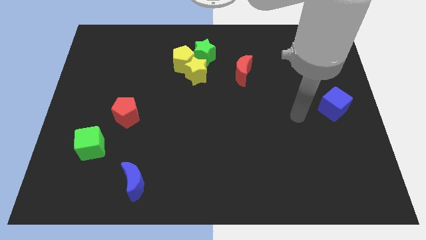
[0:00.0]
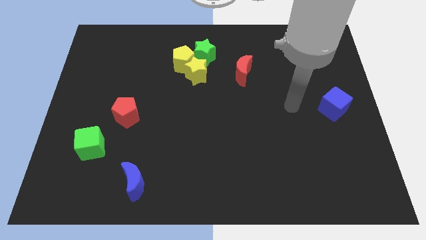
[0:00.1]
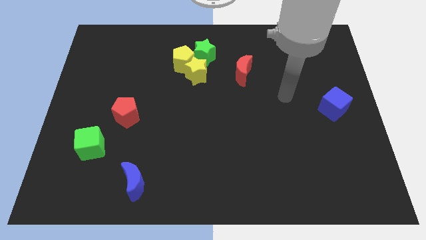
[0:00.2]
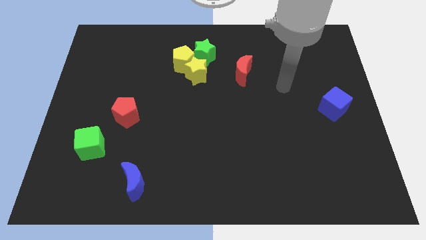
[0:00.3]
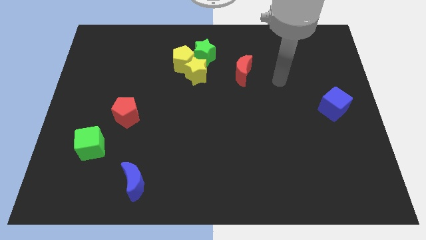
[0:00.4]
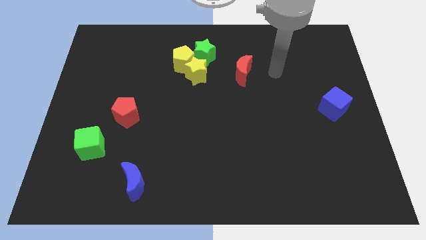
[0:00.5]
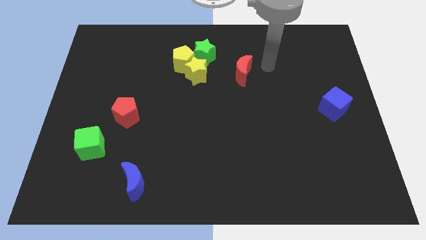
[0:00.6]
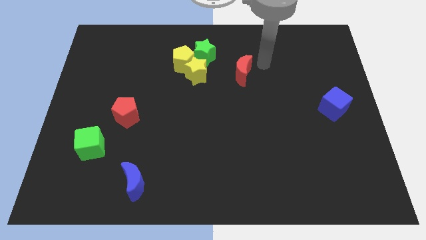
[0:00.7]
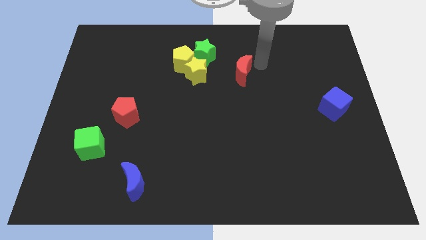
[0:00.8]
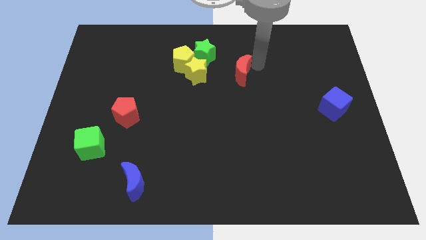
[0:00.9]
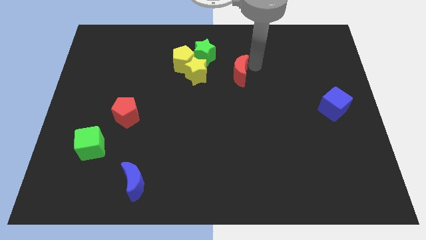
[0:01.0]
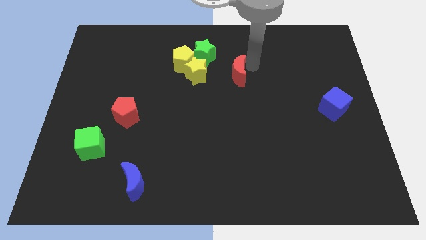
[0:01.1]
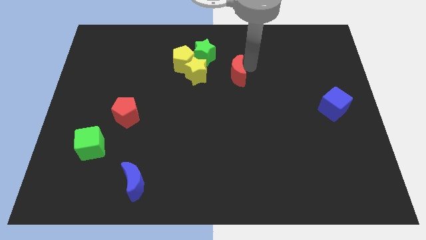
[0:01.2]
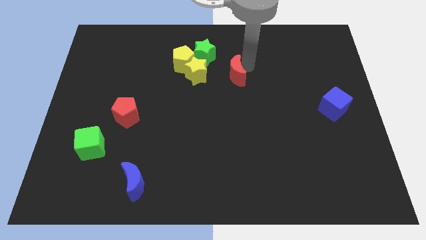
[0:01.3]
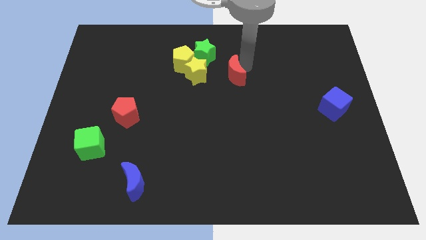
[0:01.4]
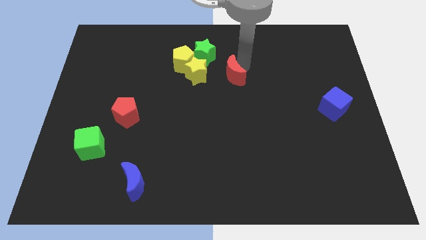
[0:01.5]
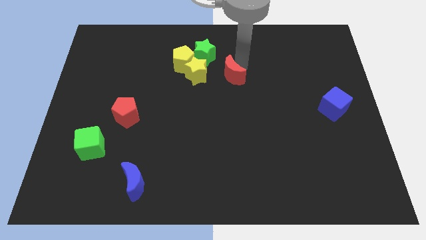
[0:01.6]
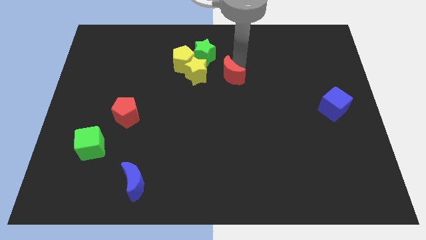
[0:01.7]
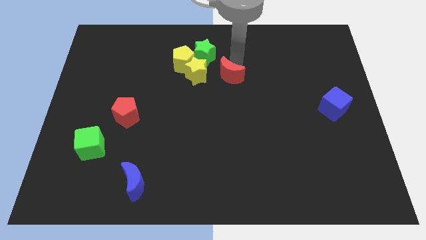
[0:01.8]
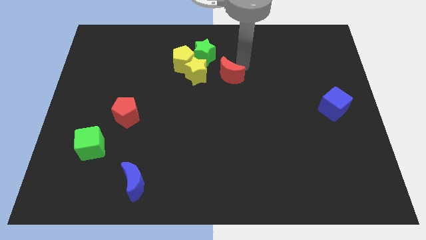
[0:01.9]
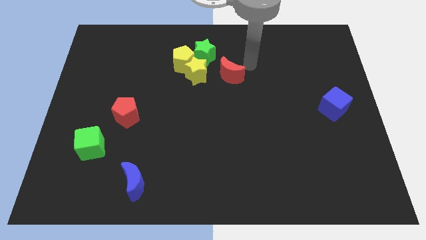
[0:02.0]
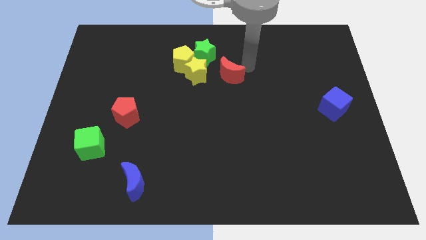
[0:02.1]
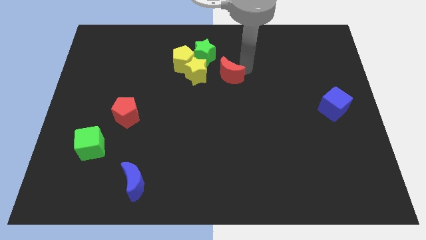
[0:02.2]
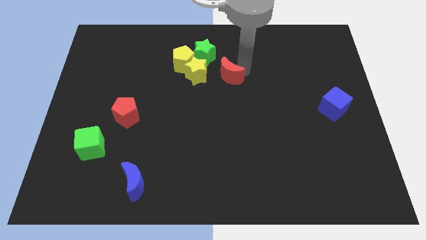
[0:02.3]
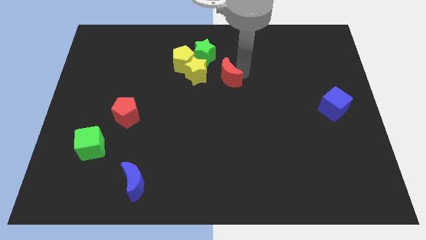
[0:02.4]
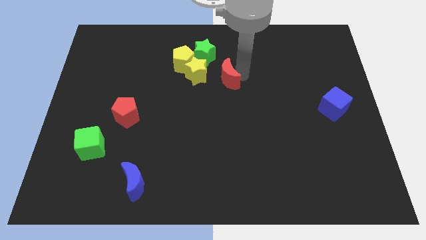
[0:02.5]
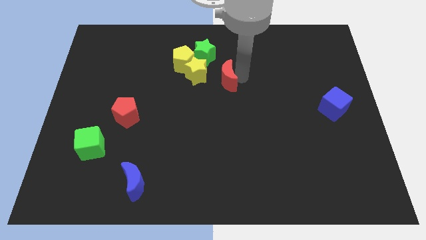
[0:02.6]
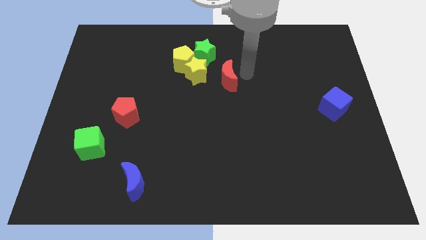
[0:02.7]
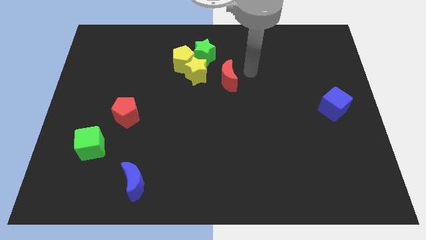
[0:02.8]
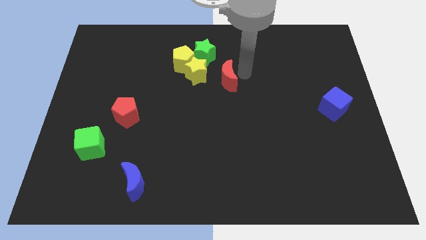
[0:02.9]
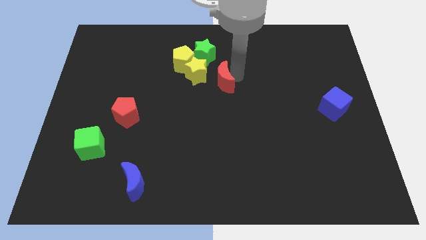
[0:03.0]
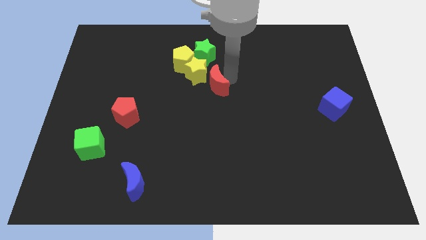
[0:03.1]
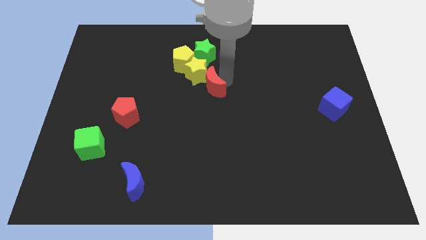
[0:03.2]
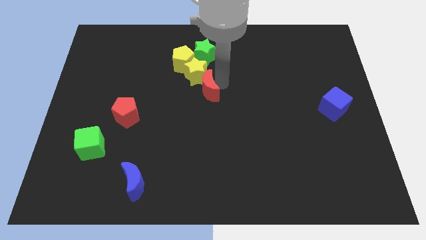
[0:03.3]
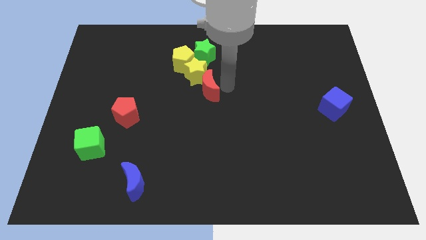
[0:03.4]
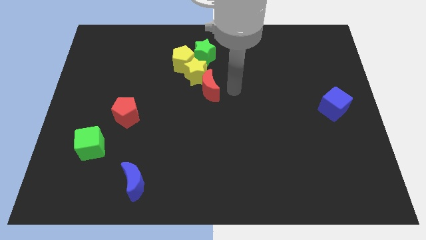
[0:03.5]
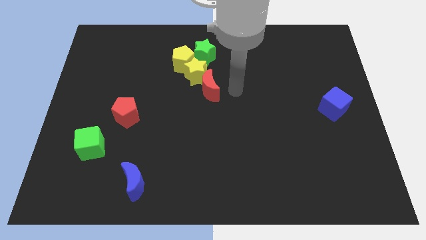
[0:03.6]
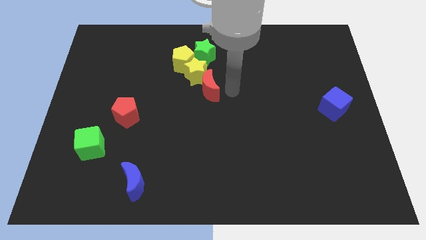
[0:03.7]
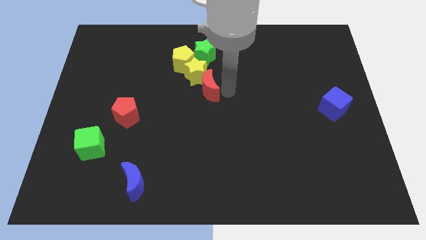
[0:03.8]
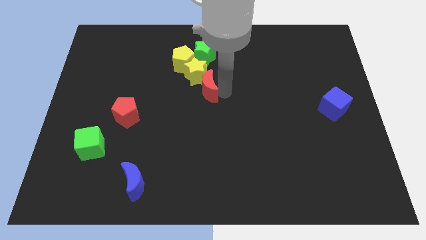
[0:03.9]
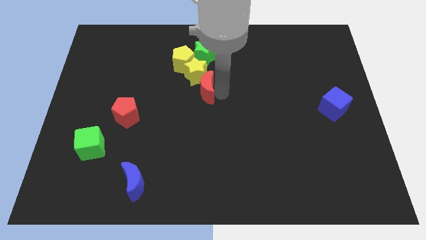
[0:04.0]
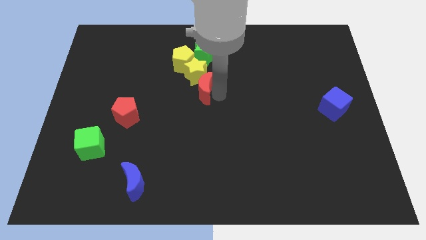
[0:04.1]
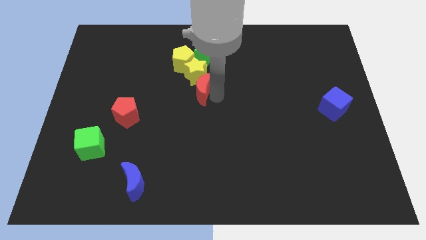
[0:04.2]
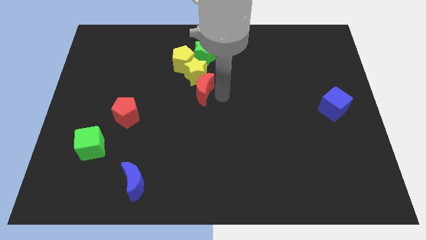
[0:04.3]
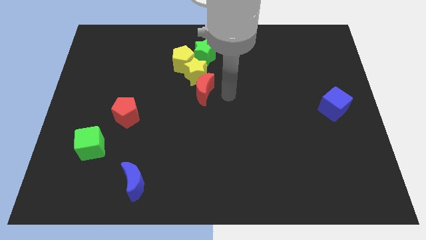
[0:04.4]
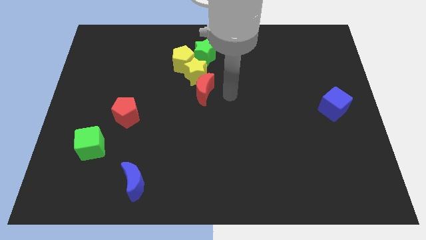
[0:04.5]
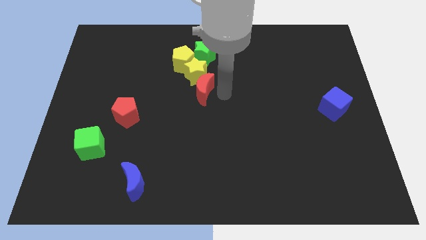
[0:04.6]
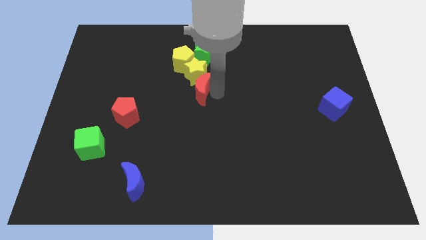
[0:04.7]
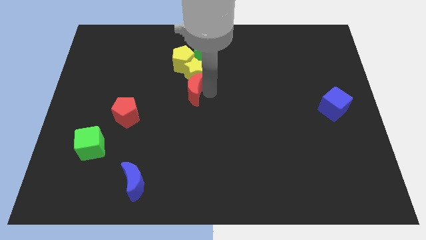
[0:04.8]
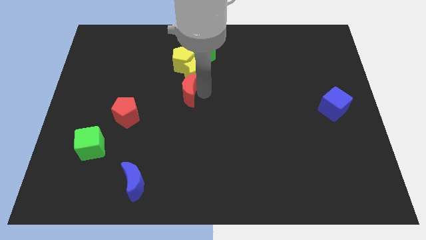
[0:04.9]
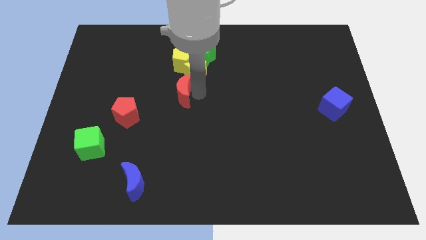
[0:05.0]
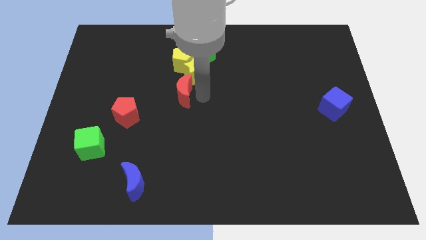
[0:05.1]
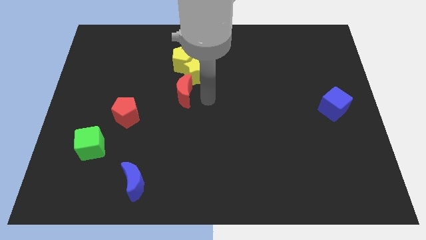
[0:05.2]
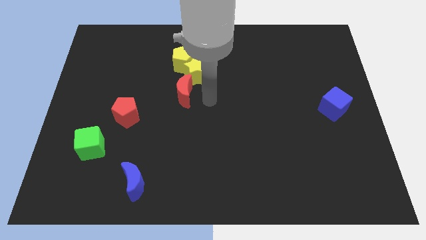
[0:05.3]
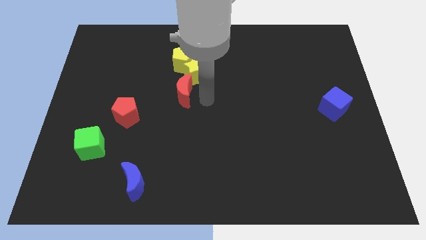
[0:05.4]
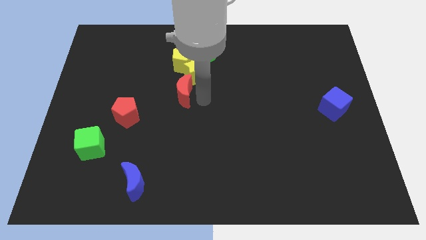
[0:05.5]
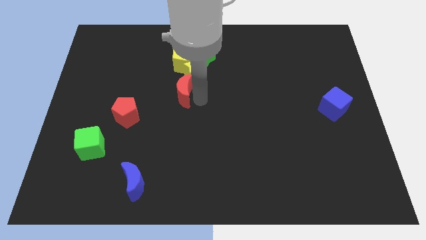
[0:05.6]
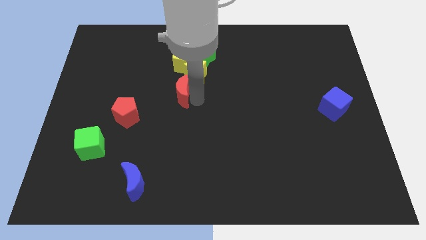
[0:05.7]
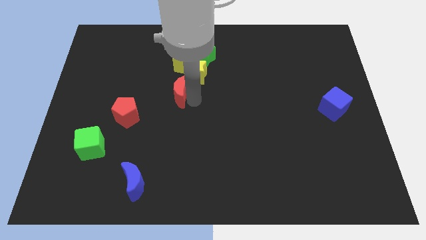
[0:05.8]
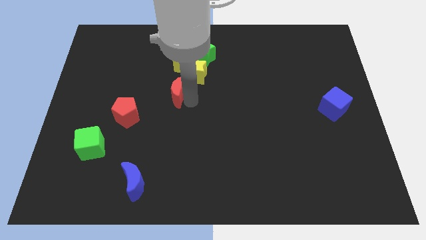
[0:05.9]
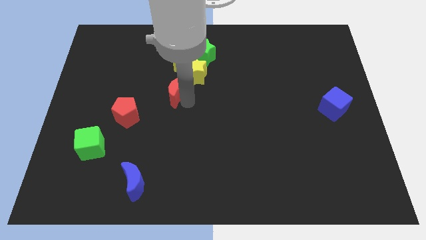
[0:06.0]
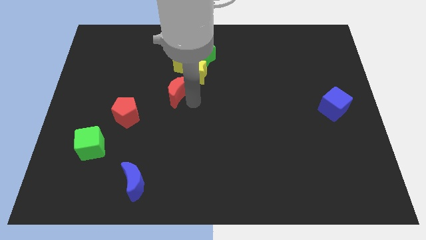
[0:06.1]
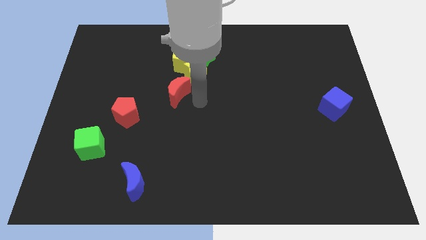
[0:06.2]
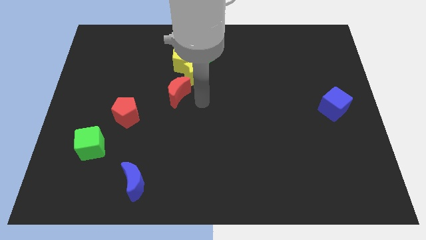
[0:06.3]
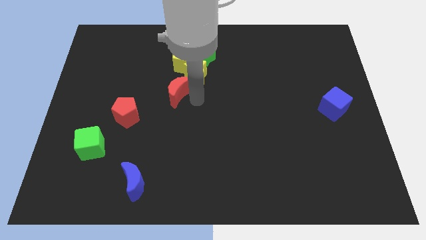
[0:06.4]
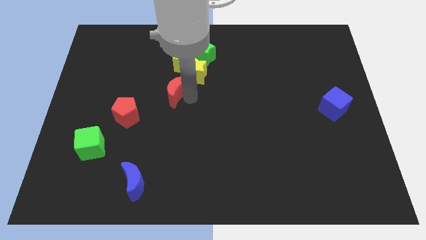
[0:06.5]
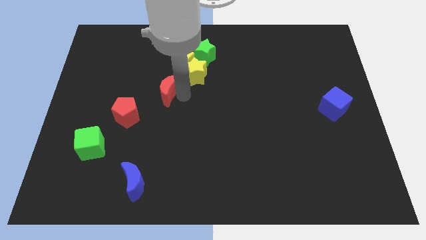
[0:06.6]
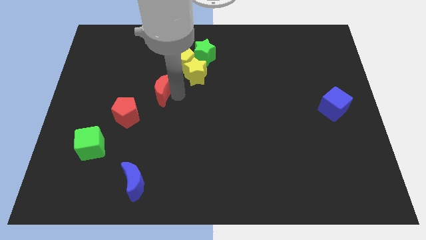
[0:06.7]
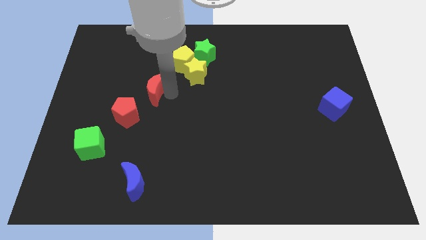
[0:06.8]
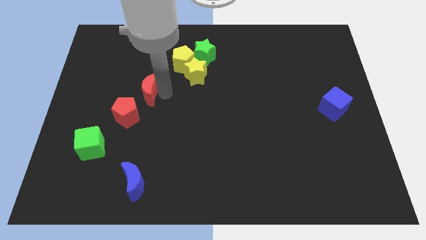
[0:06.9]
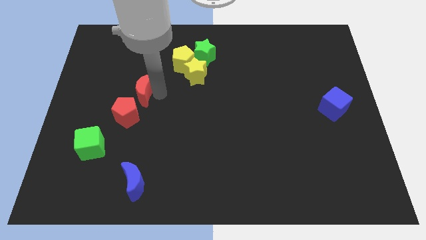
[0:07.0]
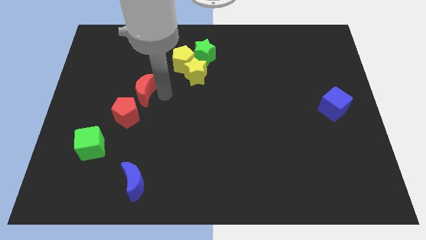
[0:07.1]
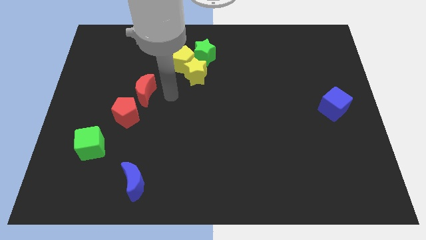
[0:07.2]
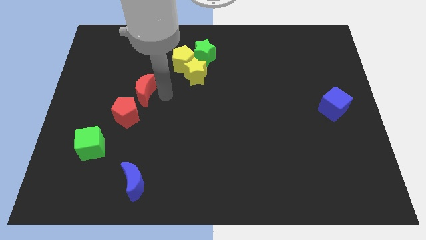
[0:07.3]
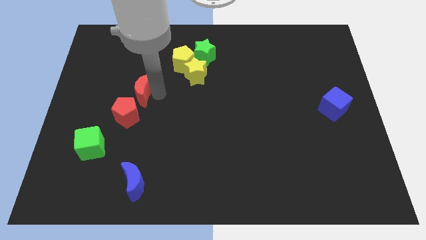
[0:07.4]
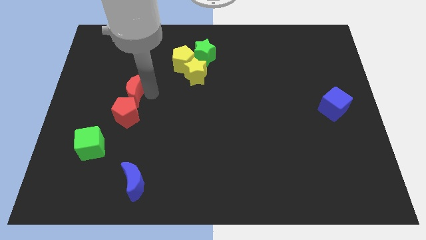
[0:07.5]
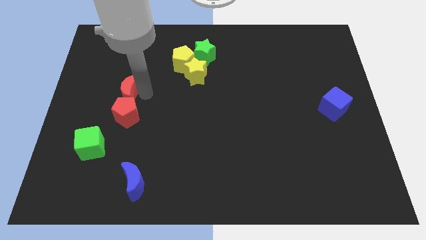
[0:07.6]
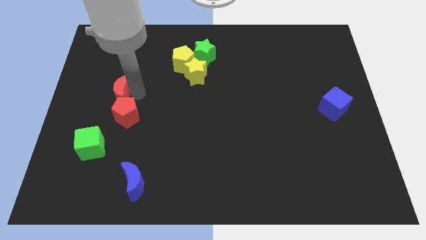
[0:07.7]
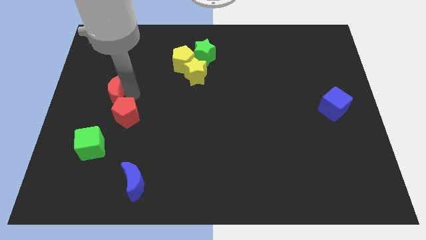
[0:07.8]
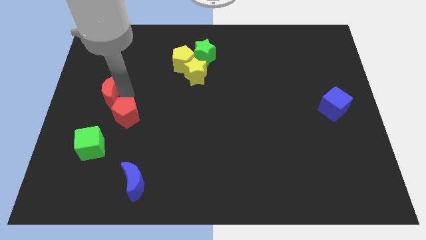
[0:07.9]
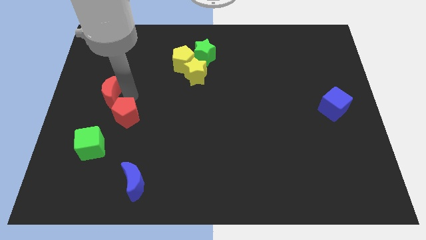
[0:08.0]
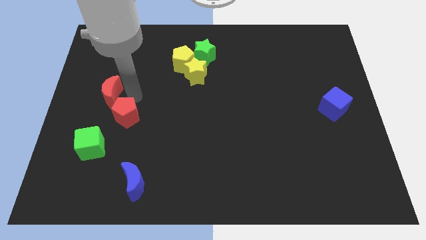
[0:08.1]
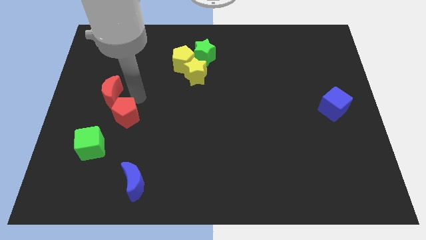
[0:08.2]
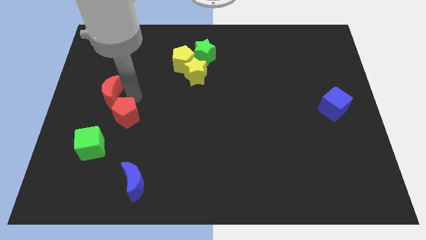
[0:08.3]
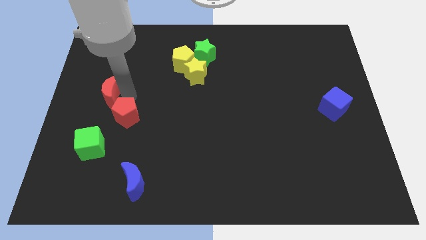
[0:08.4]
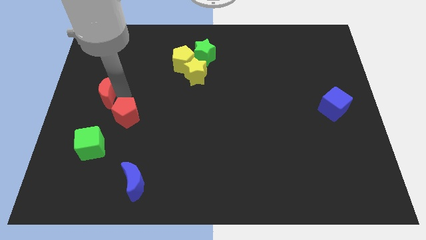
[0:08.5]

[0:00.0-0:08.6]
push the red moon to the center left
